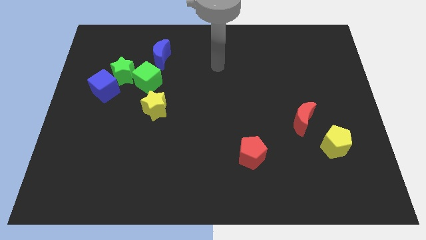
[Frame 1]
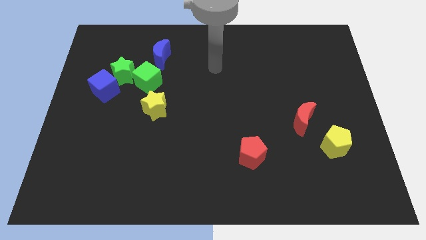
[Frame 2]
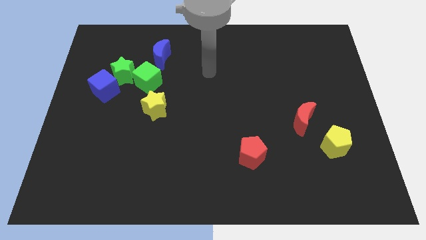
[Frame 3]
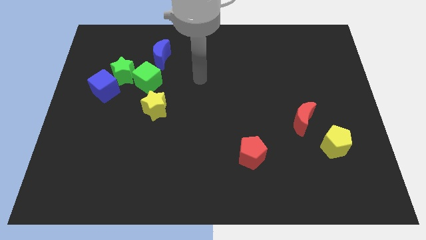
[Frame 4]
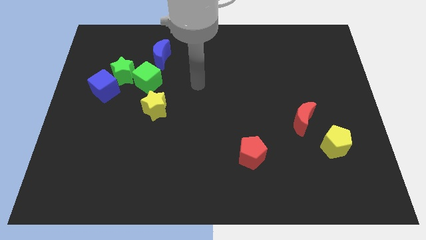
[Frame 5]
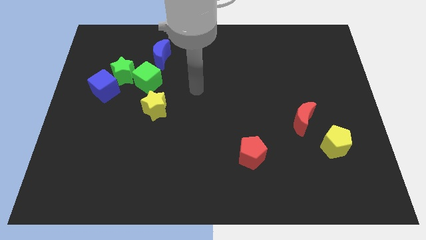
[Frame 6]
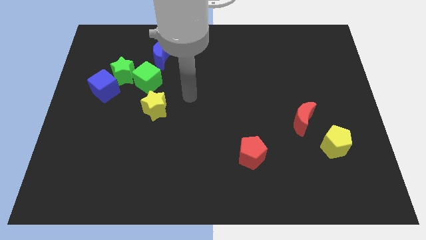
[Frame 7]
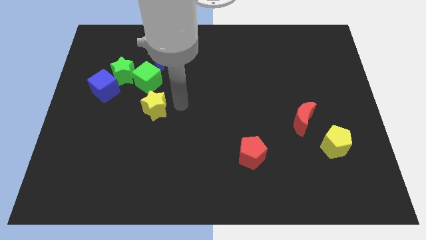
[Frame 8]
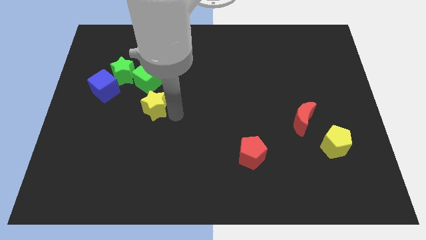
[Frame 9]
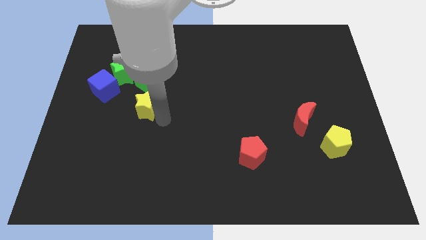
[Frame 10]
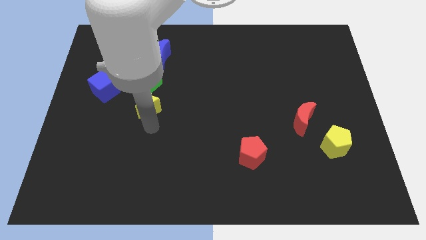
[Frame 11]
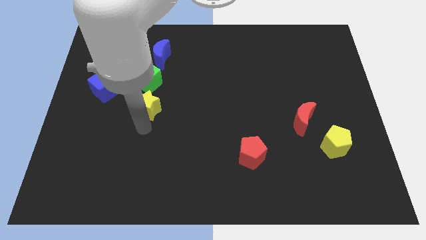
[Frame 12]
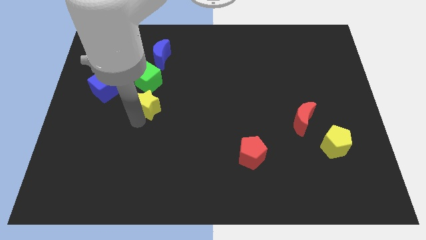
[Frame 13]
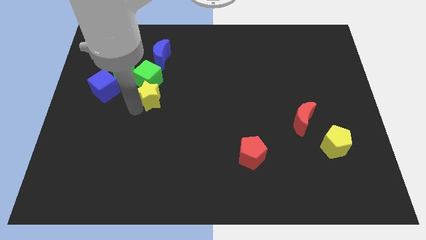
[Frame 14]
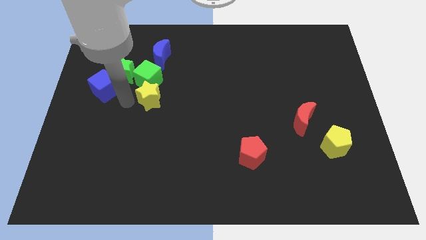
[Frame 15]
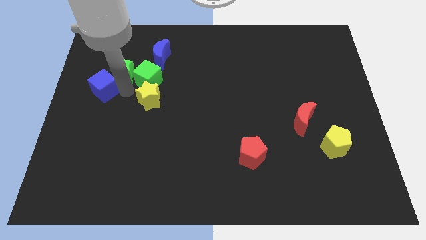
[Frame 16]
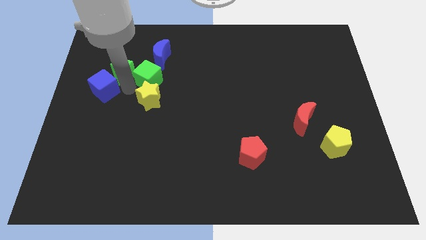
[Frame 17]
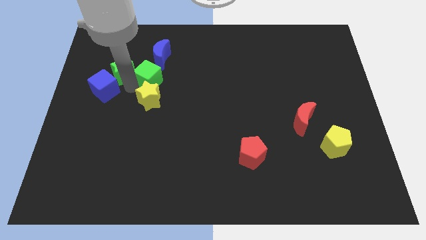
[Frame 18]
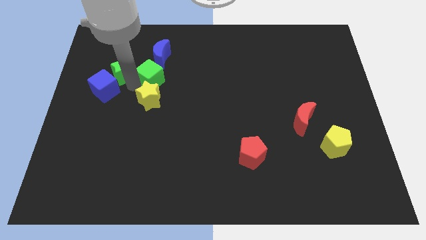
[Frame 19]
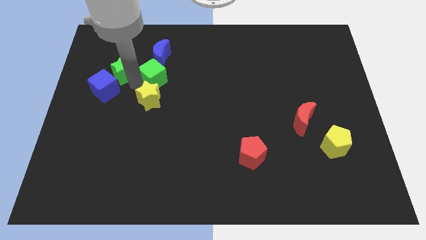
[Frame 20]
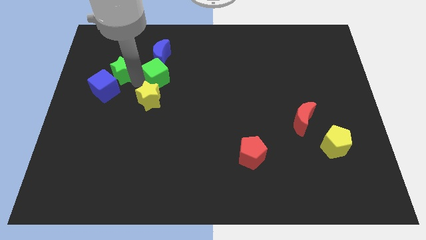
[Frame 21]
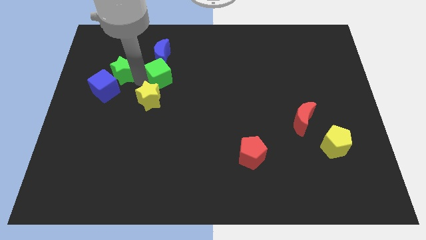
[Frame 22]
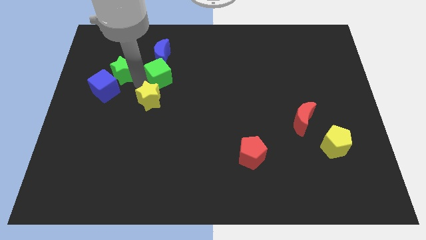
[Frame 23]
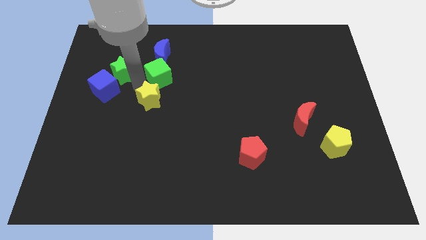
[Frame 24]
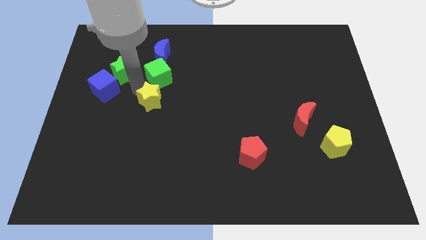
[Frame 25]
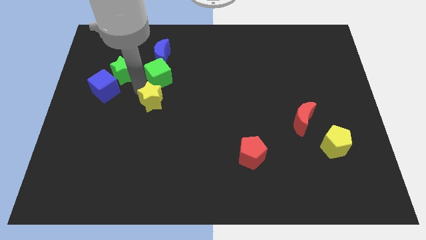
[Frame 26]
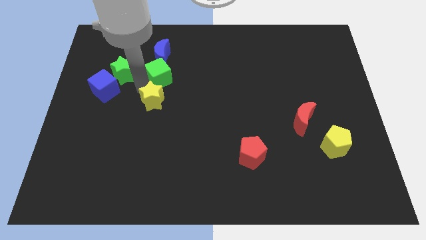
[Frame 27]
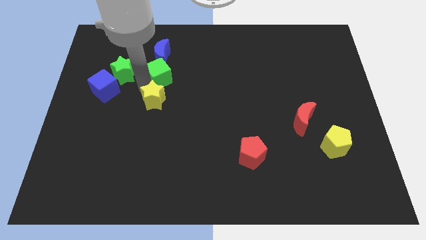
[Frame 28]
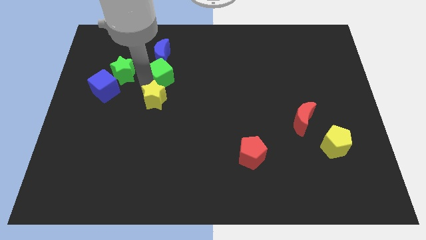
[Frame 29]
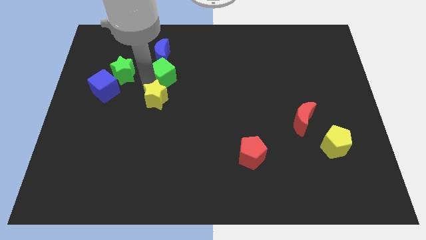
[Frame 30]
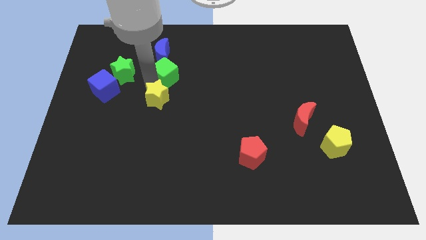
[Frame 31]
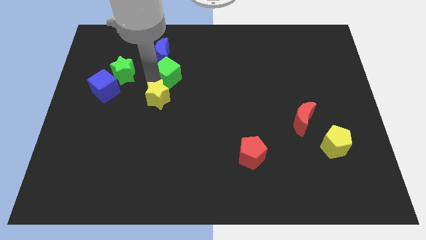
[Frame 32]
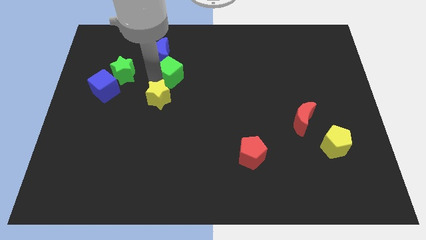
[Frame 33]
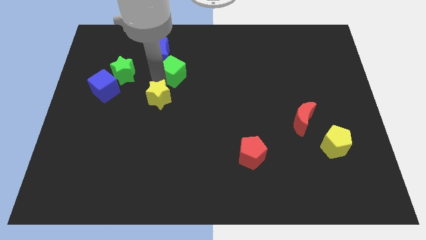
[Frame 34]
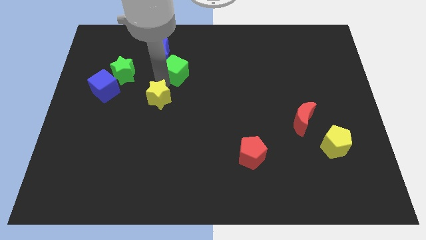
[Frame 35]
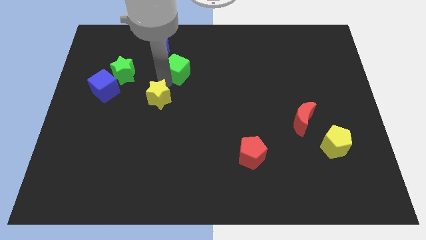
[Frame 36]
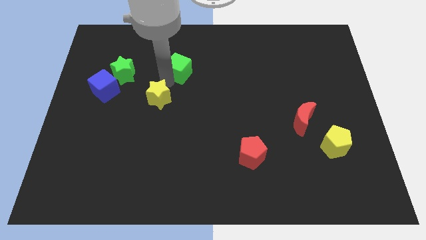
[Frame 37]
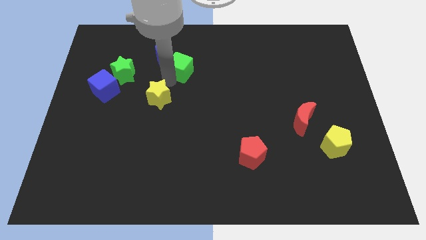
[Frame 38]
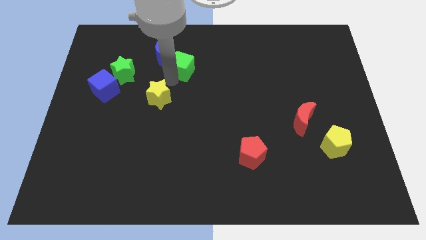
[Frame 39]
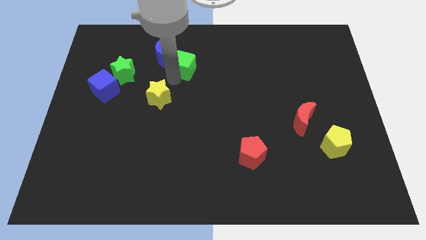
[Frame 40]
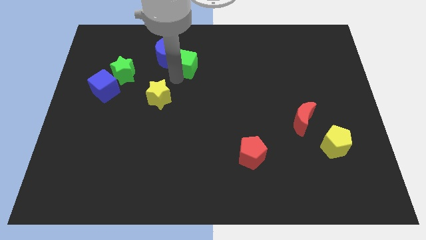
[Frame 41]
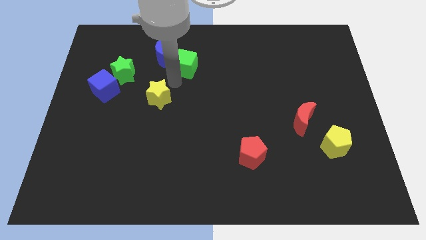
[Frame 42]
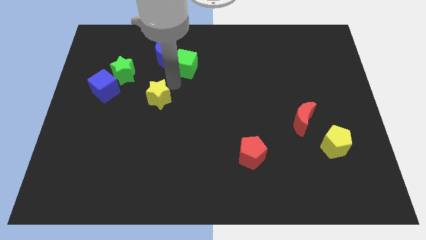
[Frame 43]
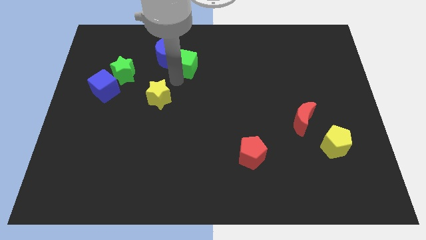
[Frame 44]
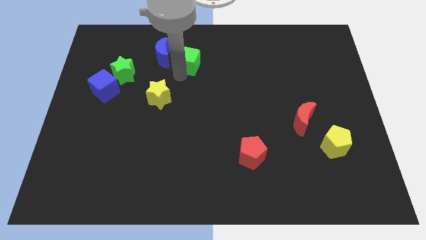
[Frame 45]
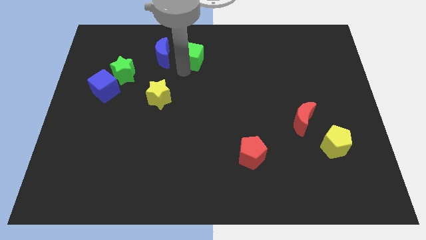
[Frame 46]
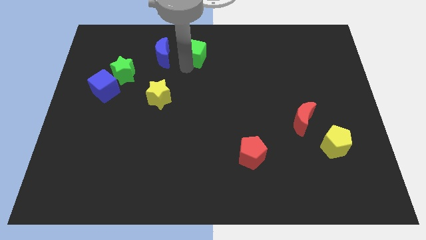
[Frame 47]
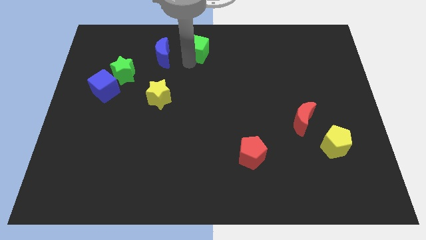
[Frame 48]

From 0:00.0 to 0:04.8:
put the green cube to the top side

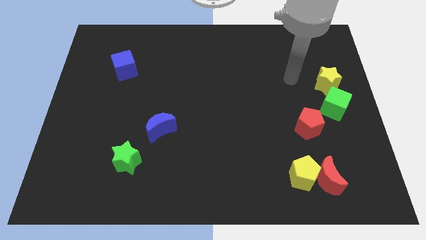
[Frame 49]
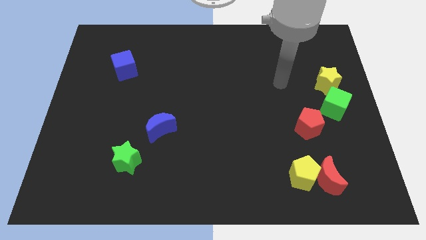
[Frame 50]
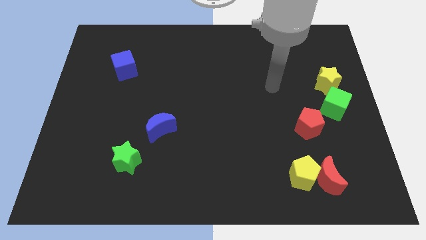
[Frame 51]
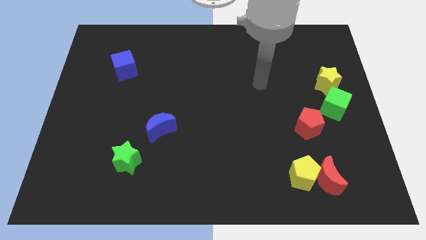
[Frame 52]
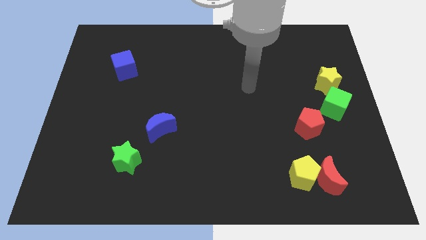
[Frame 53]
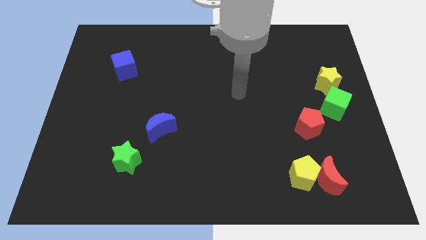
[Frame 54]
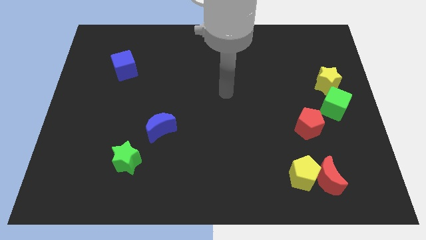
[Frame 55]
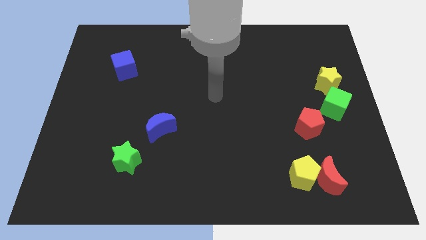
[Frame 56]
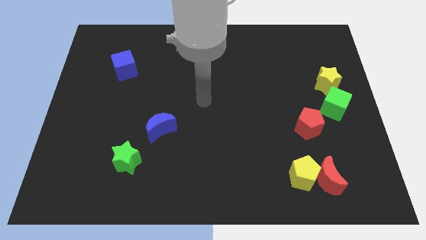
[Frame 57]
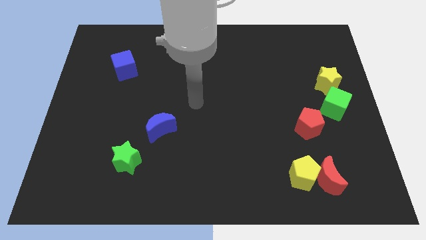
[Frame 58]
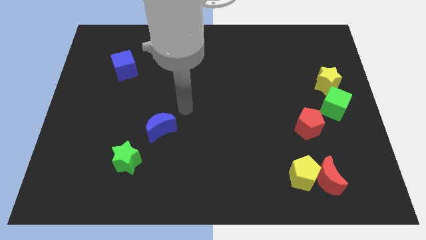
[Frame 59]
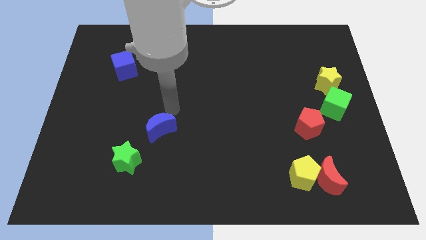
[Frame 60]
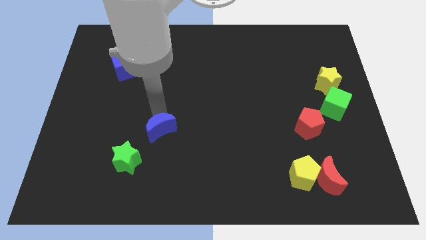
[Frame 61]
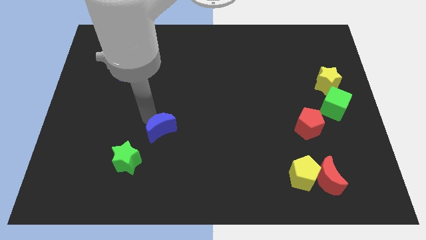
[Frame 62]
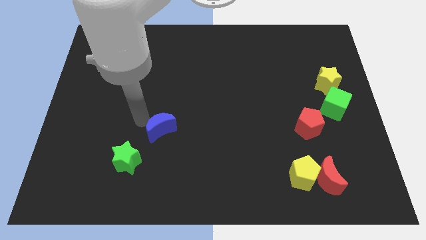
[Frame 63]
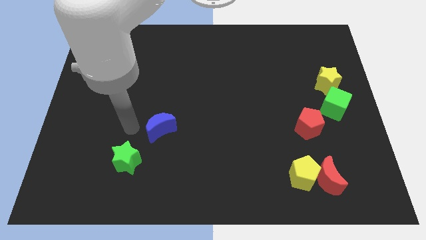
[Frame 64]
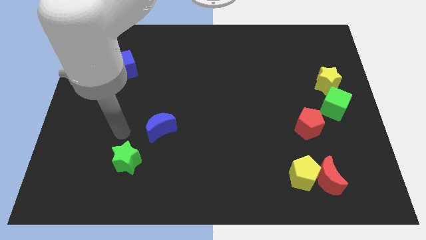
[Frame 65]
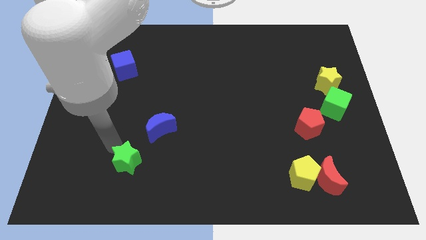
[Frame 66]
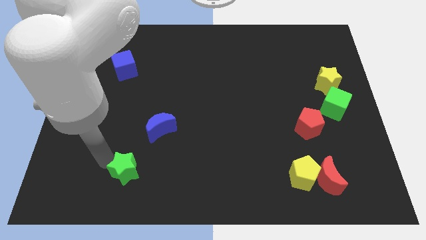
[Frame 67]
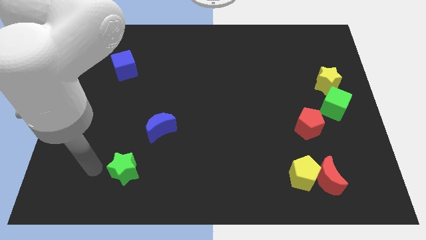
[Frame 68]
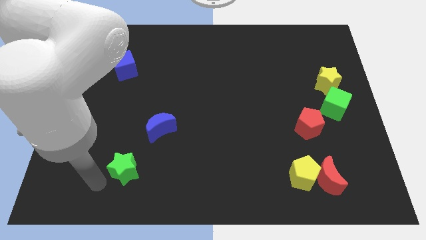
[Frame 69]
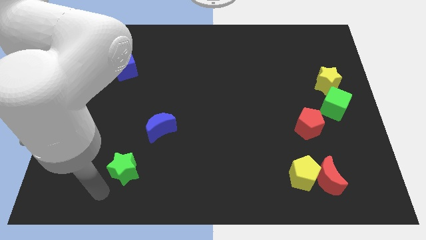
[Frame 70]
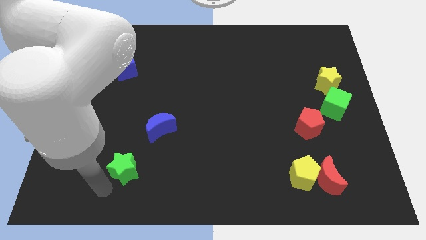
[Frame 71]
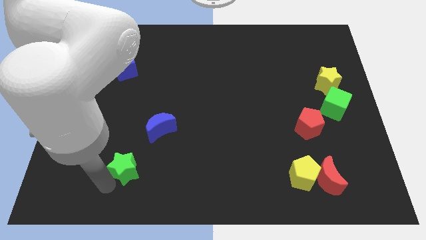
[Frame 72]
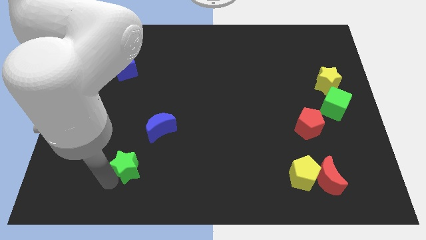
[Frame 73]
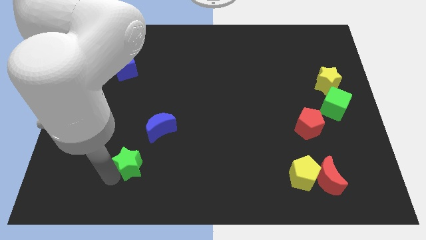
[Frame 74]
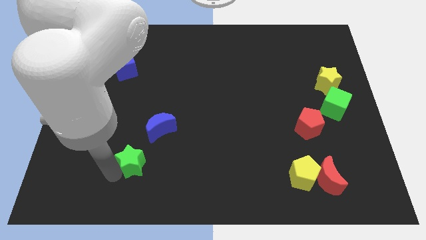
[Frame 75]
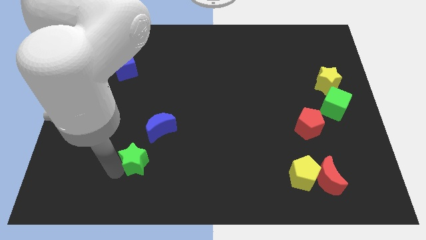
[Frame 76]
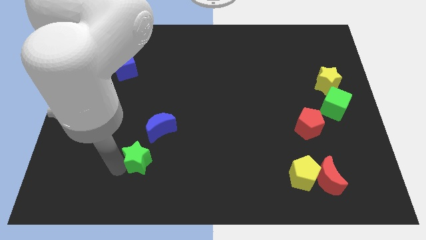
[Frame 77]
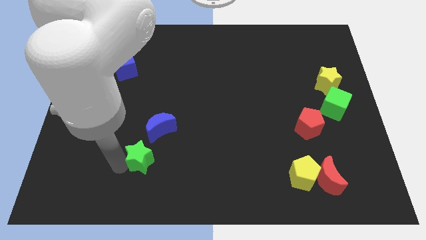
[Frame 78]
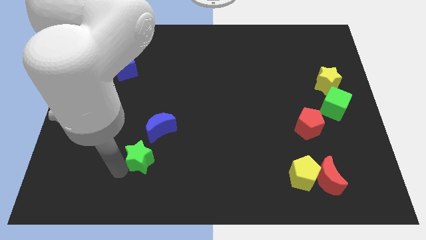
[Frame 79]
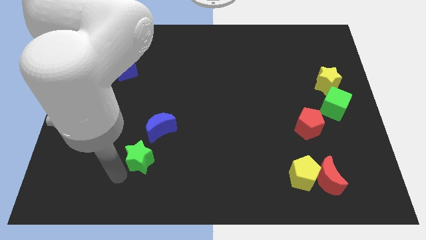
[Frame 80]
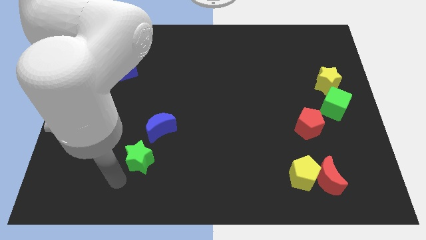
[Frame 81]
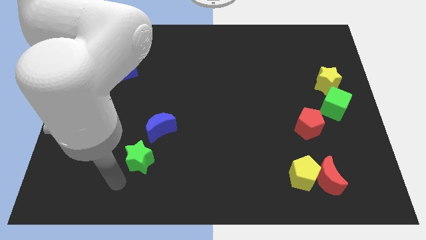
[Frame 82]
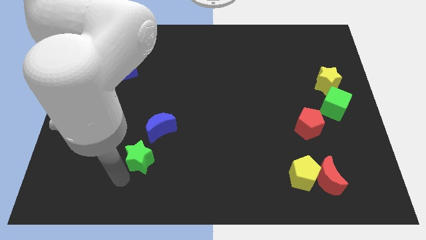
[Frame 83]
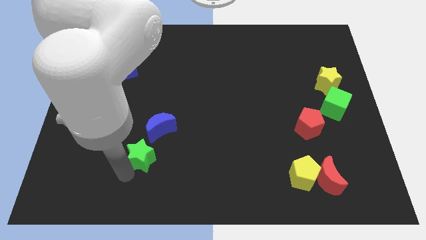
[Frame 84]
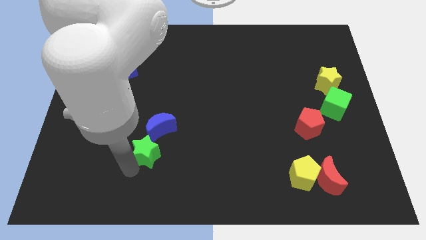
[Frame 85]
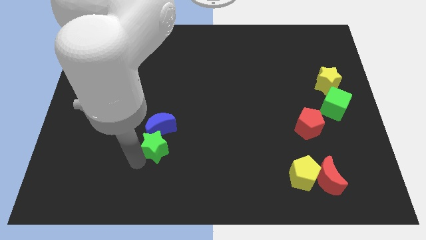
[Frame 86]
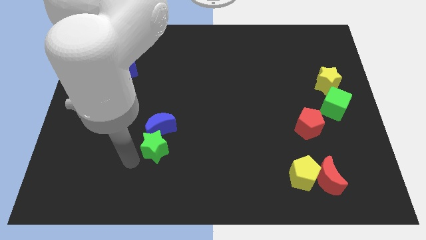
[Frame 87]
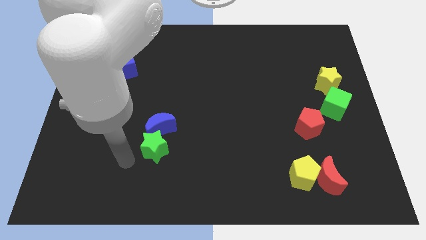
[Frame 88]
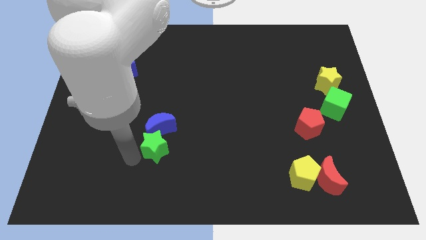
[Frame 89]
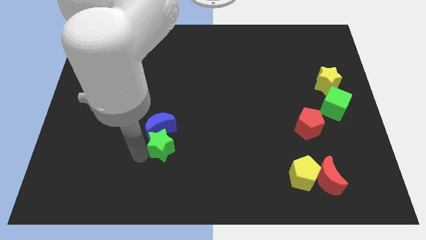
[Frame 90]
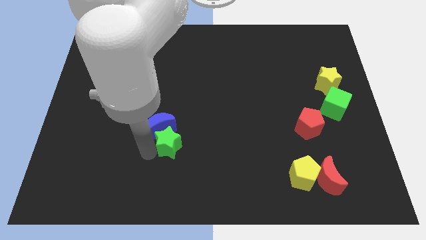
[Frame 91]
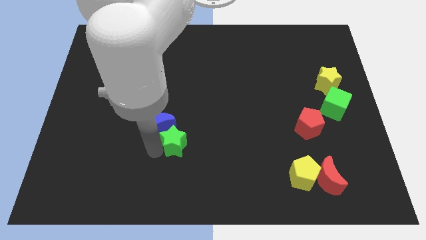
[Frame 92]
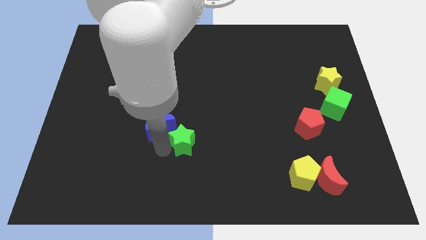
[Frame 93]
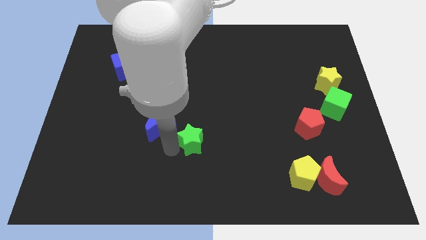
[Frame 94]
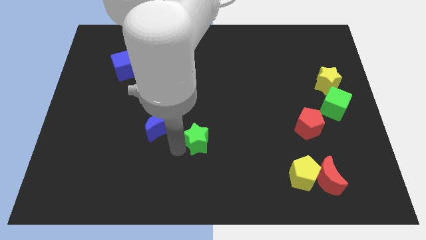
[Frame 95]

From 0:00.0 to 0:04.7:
push the green star to the center of the board
